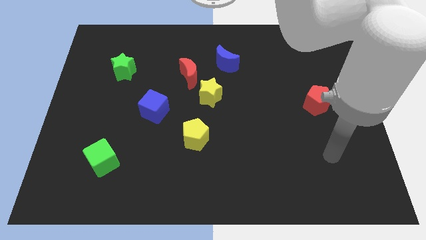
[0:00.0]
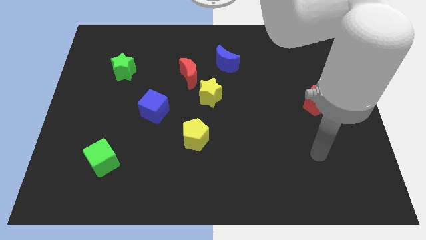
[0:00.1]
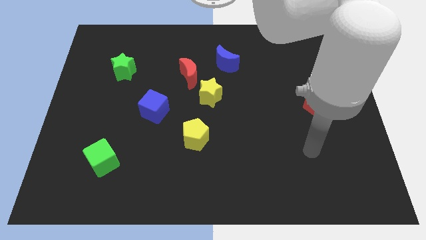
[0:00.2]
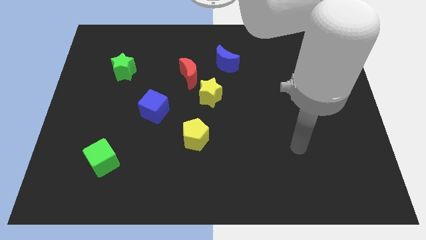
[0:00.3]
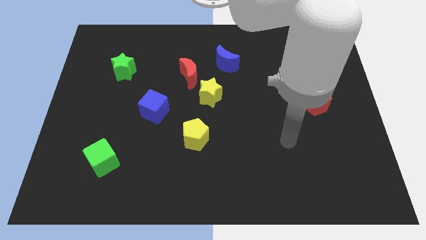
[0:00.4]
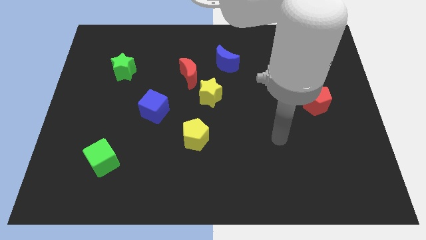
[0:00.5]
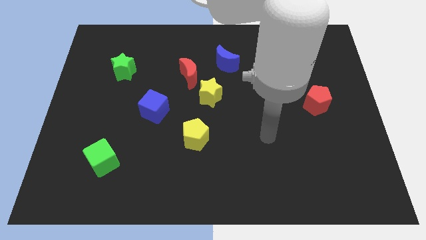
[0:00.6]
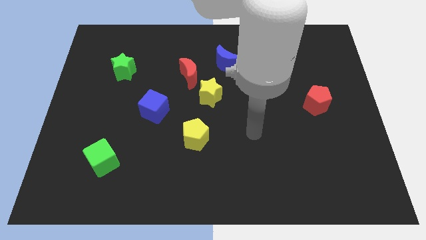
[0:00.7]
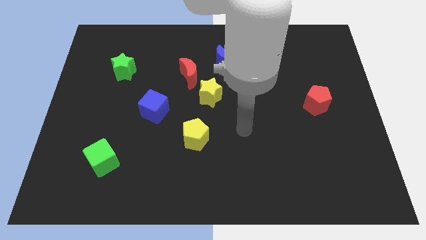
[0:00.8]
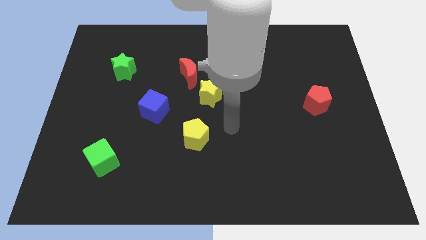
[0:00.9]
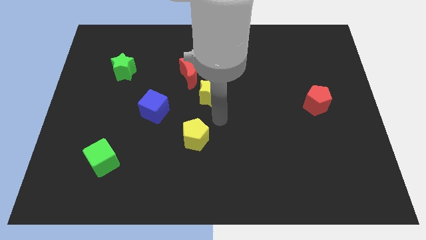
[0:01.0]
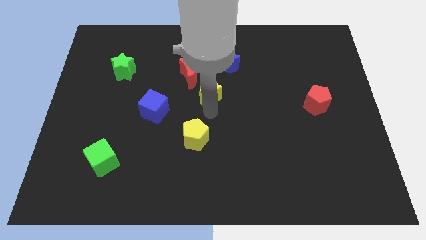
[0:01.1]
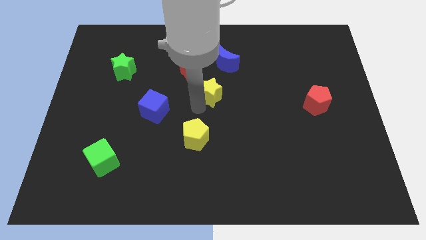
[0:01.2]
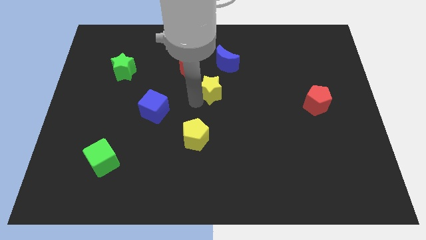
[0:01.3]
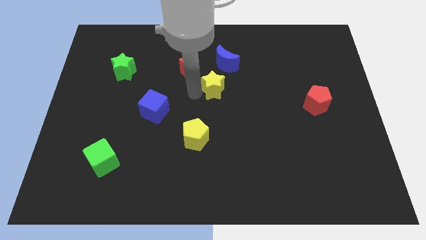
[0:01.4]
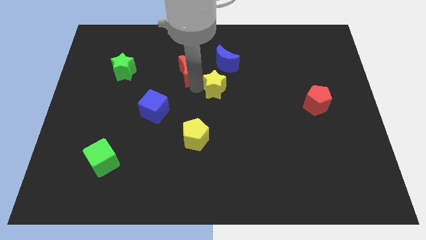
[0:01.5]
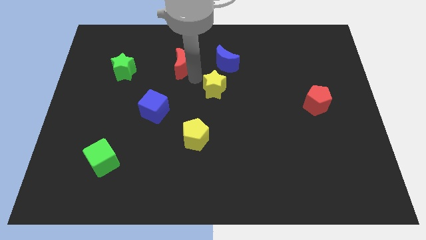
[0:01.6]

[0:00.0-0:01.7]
separate the yellow star from the red moon

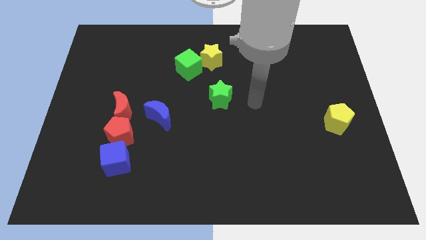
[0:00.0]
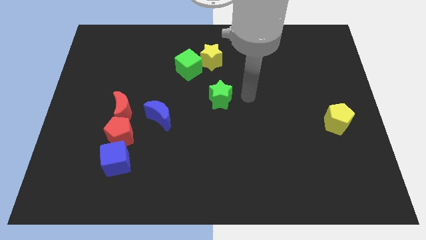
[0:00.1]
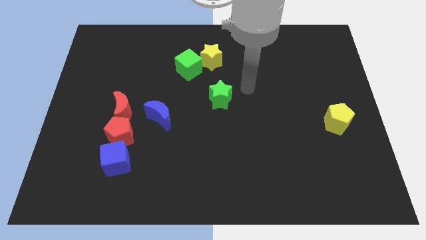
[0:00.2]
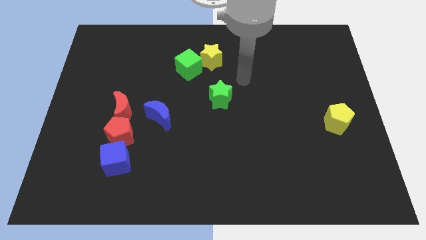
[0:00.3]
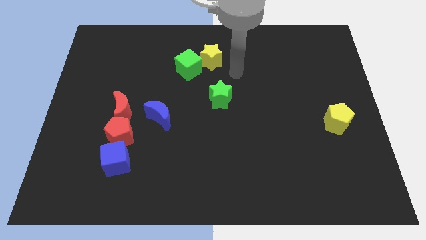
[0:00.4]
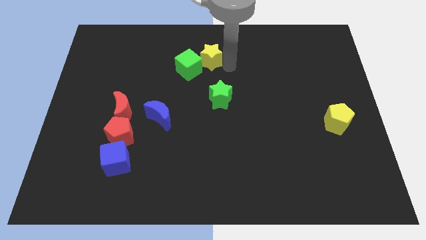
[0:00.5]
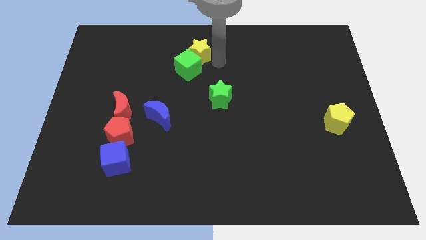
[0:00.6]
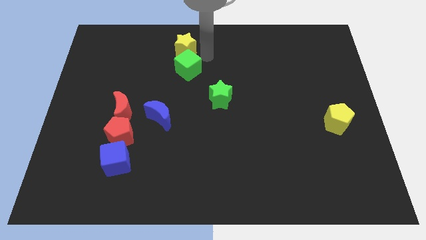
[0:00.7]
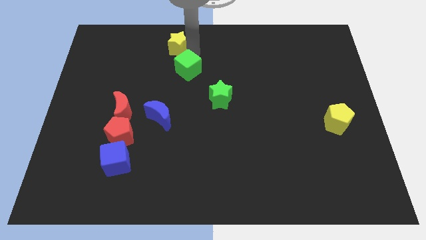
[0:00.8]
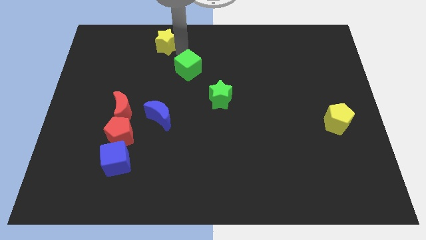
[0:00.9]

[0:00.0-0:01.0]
separate the green cube from the yellow star

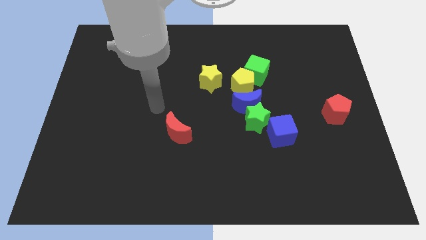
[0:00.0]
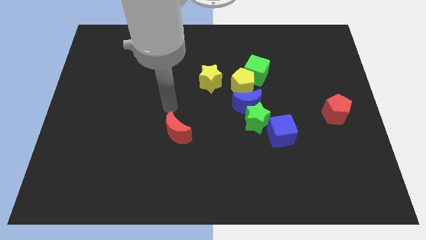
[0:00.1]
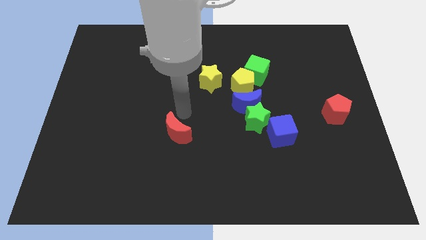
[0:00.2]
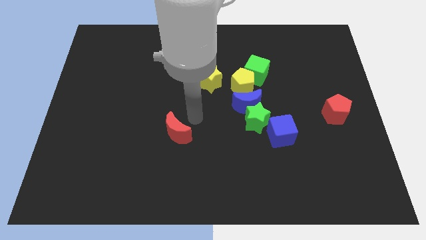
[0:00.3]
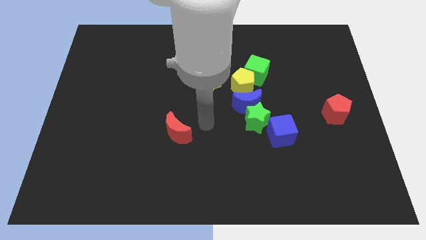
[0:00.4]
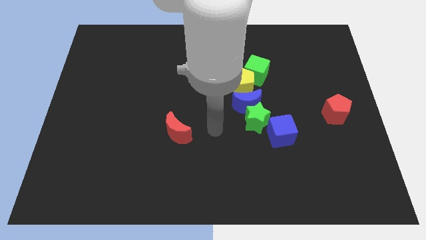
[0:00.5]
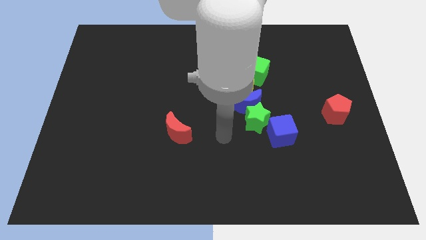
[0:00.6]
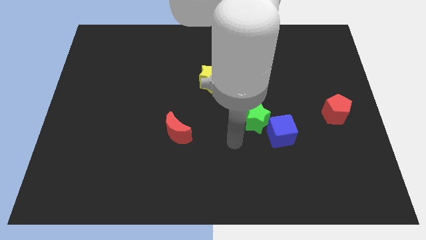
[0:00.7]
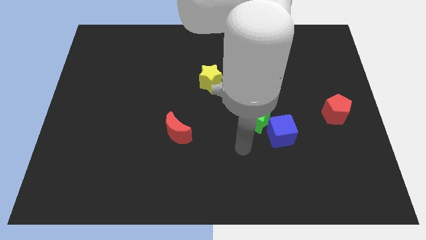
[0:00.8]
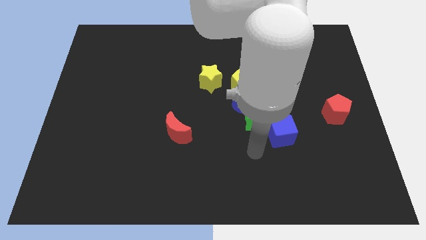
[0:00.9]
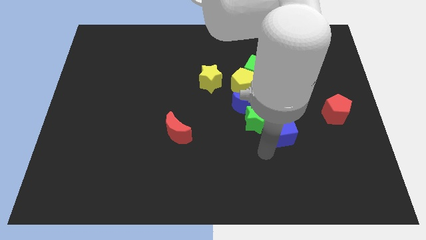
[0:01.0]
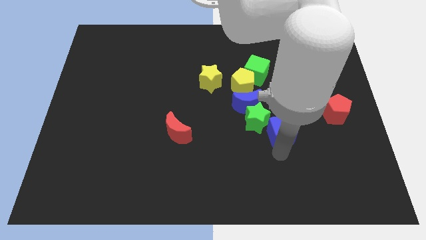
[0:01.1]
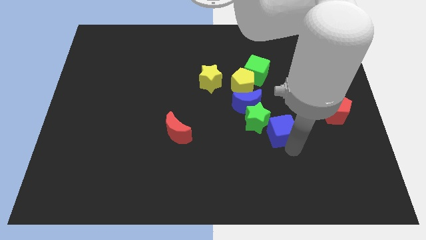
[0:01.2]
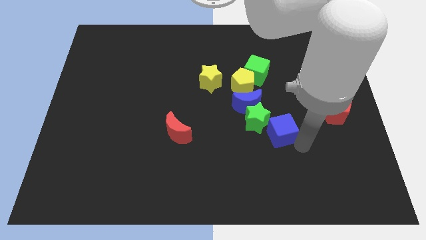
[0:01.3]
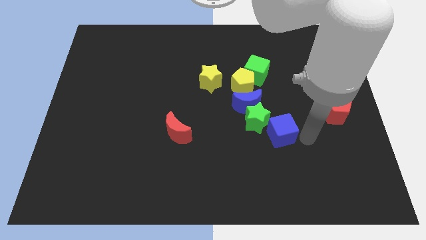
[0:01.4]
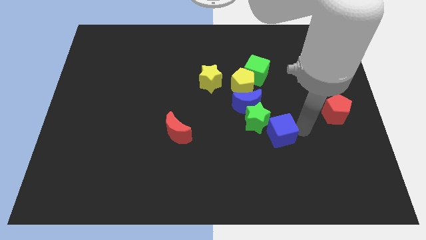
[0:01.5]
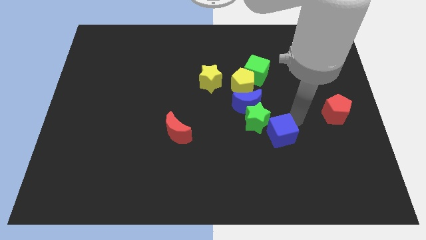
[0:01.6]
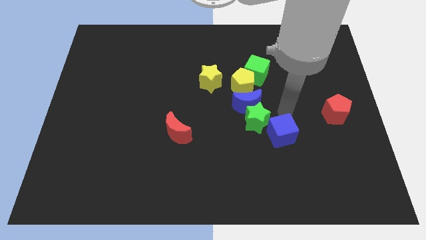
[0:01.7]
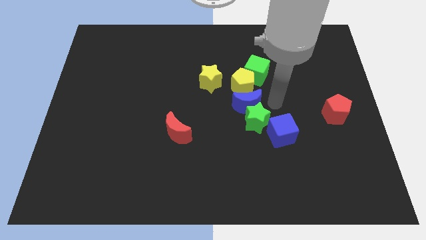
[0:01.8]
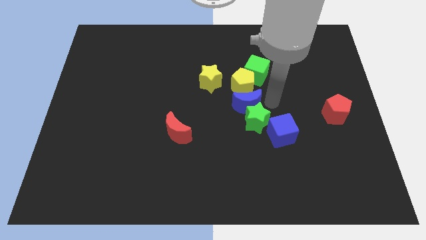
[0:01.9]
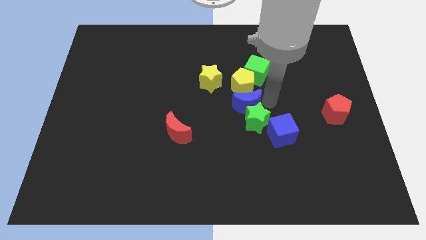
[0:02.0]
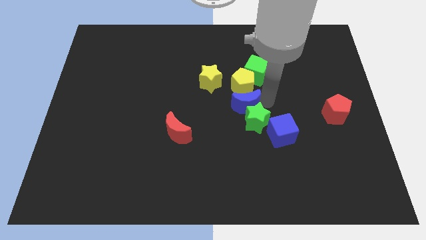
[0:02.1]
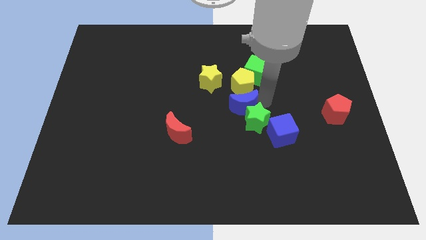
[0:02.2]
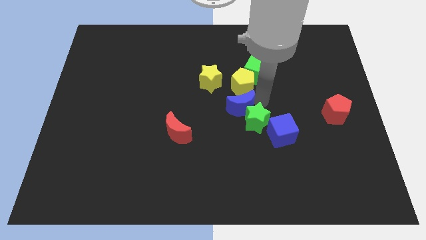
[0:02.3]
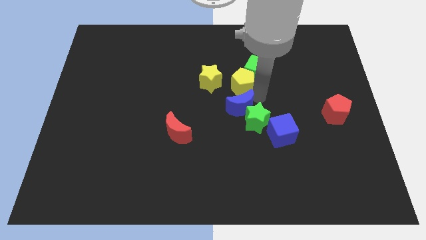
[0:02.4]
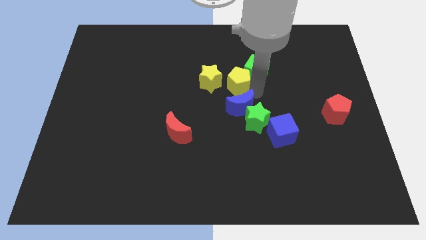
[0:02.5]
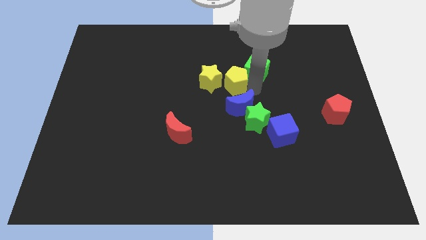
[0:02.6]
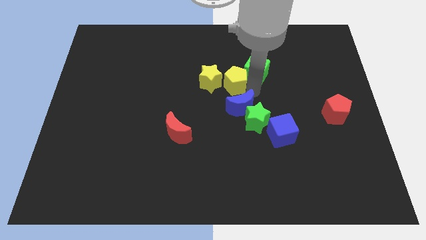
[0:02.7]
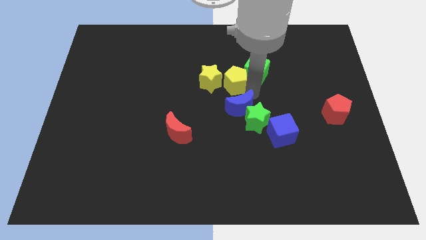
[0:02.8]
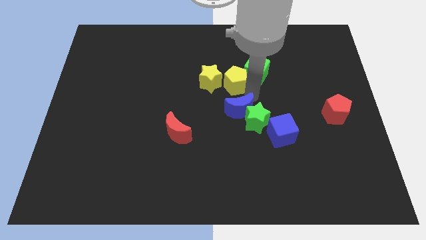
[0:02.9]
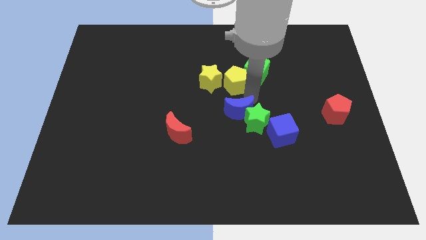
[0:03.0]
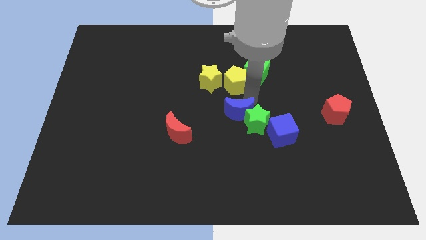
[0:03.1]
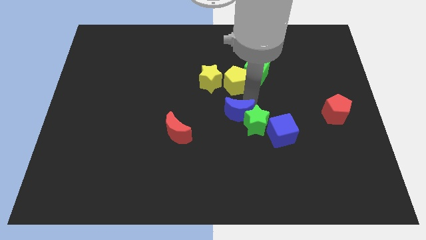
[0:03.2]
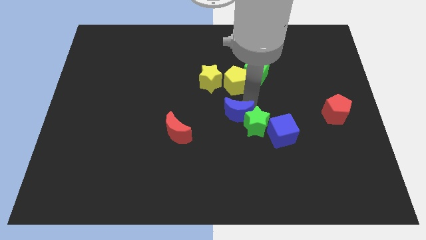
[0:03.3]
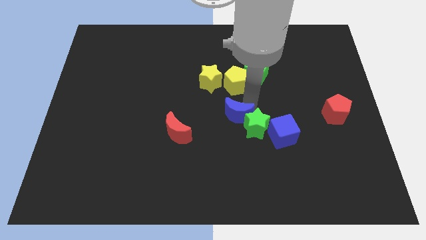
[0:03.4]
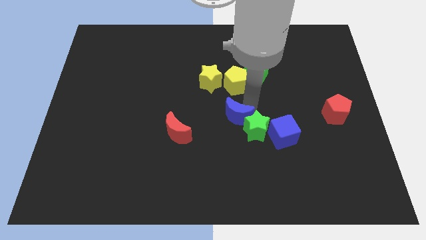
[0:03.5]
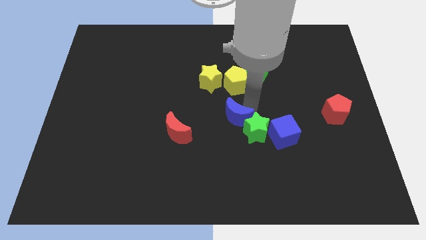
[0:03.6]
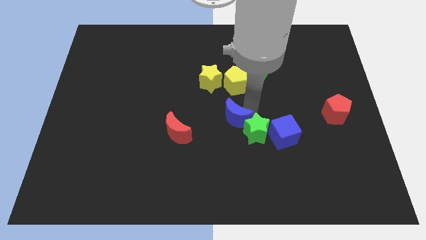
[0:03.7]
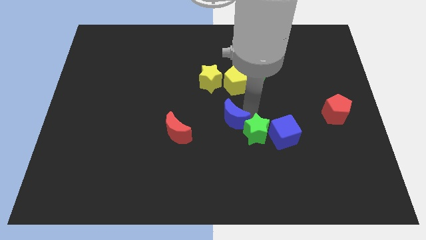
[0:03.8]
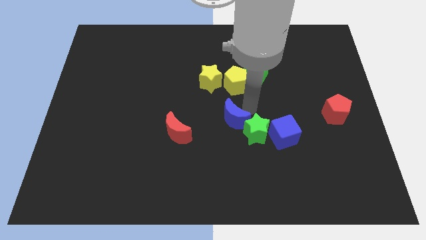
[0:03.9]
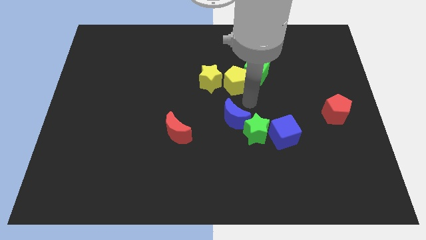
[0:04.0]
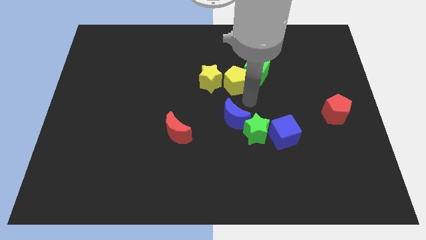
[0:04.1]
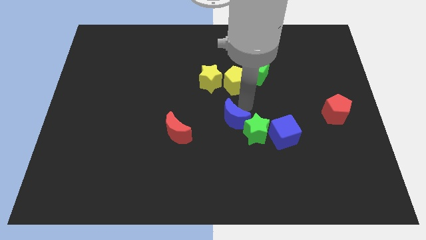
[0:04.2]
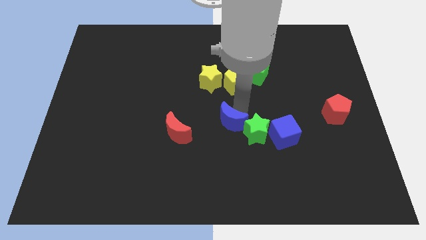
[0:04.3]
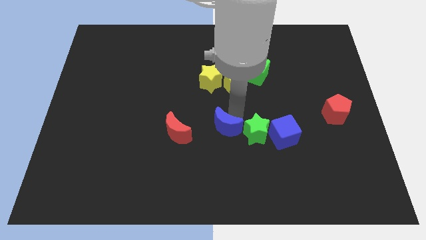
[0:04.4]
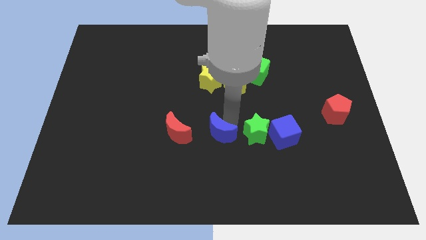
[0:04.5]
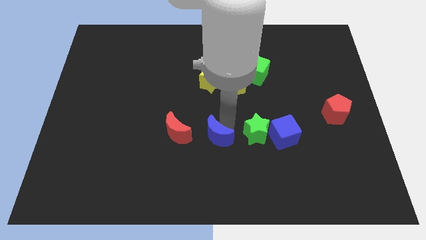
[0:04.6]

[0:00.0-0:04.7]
move the blue moon away from the green star and yellow pentagon

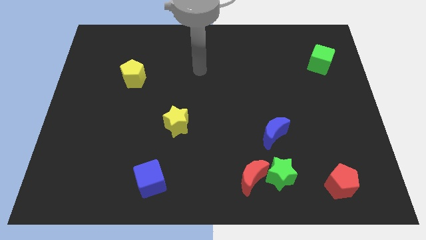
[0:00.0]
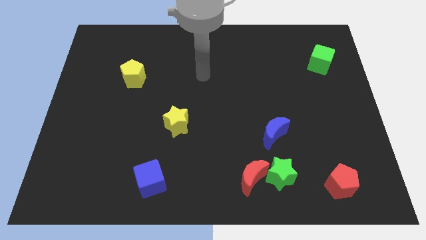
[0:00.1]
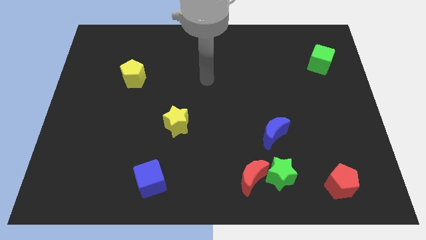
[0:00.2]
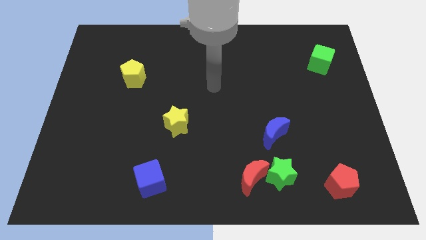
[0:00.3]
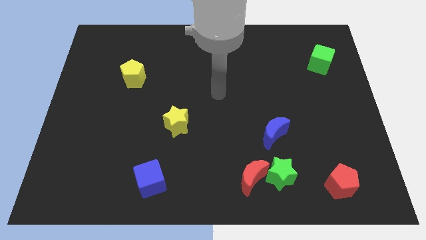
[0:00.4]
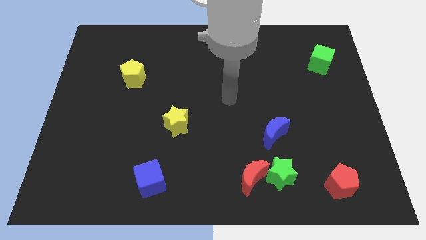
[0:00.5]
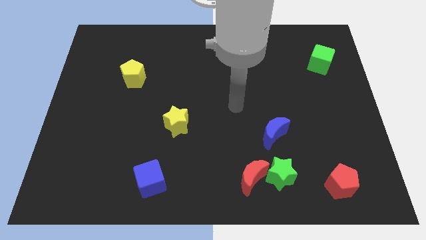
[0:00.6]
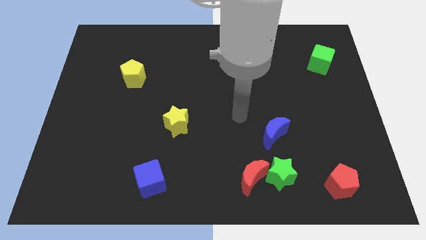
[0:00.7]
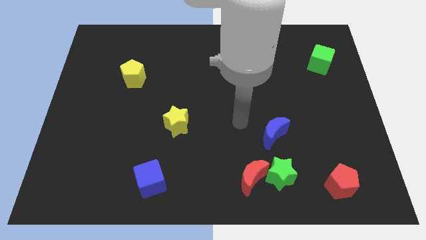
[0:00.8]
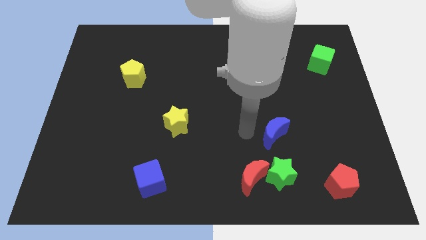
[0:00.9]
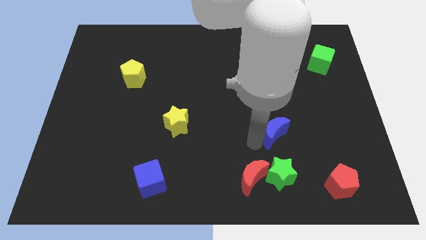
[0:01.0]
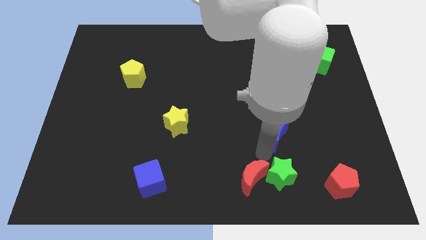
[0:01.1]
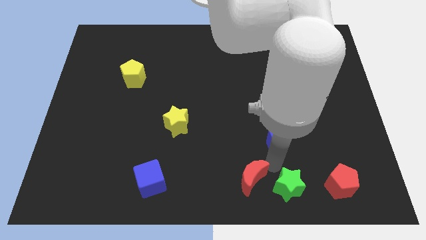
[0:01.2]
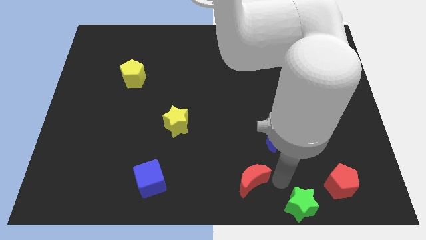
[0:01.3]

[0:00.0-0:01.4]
move the red moon away from the green star

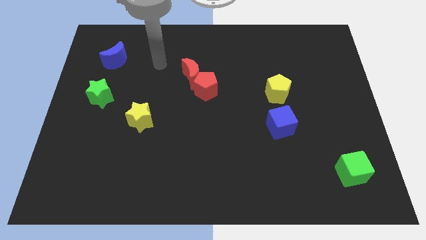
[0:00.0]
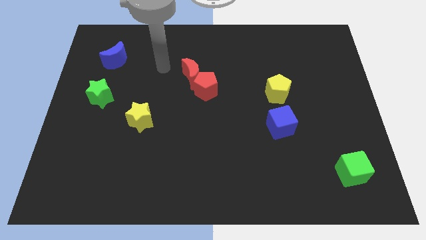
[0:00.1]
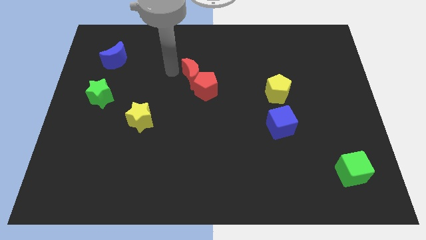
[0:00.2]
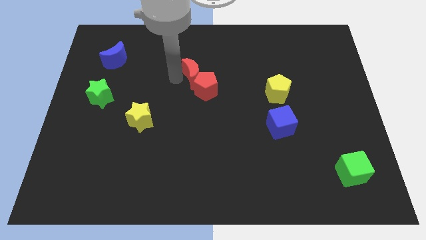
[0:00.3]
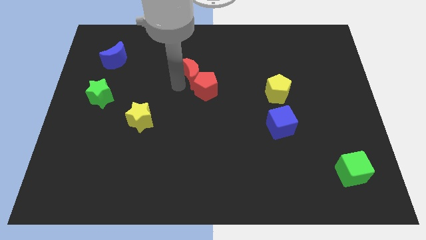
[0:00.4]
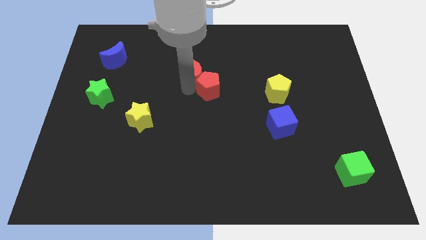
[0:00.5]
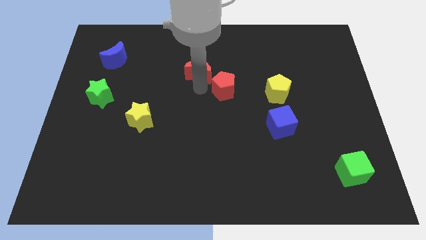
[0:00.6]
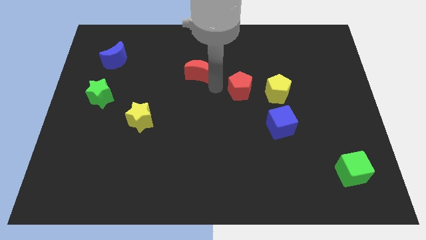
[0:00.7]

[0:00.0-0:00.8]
separate the red moon from the red pentagon

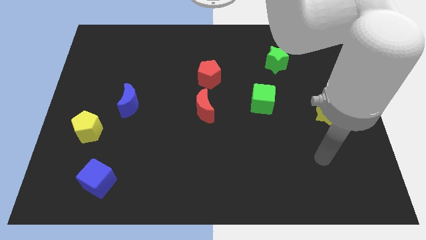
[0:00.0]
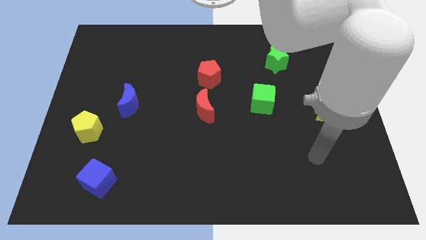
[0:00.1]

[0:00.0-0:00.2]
move the red moon away from the red pentagon